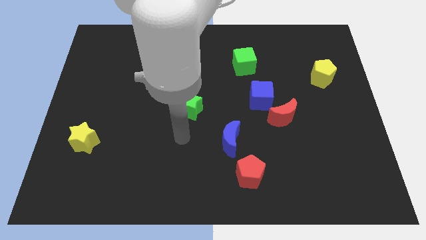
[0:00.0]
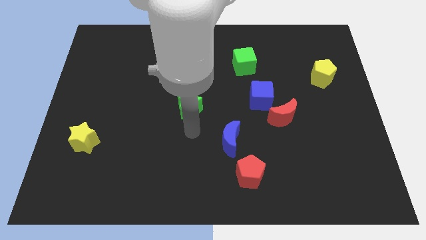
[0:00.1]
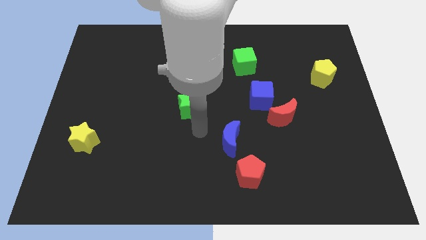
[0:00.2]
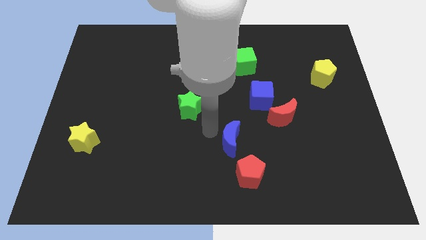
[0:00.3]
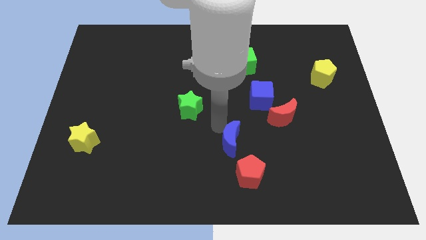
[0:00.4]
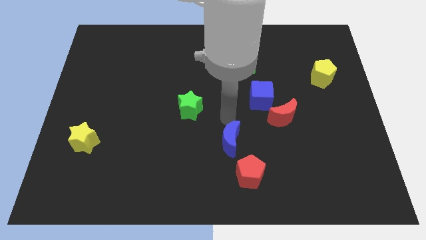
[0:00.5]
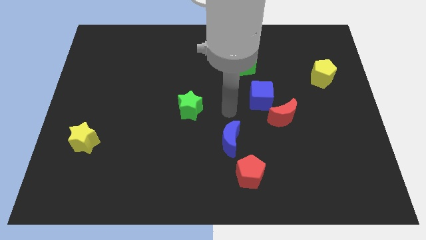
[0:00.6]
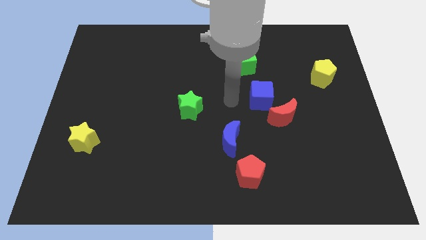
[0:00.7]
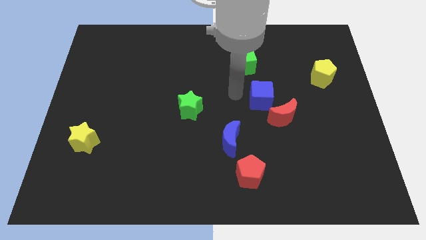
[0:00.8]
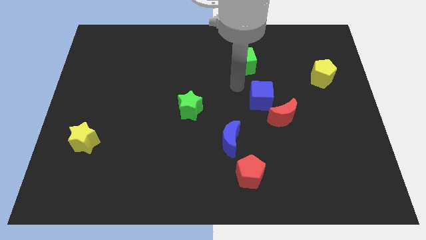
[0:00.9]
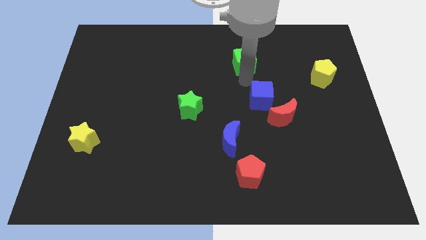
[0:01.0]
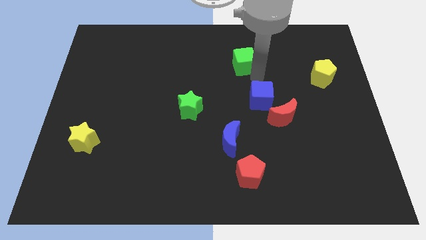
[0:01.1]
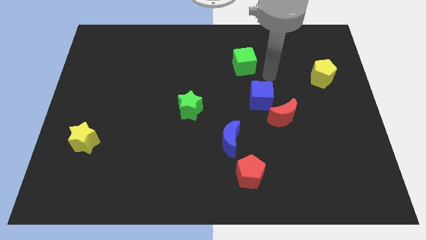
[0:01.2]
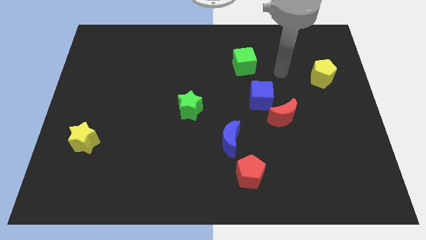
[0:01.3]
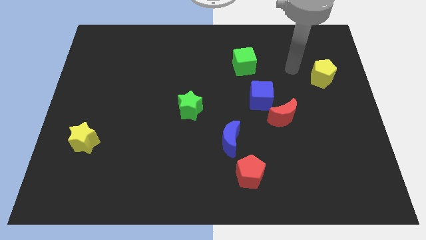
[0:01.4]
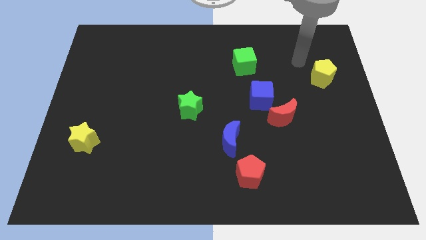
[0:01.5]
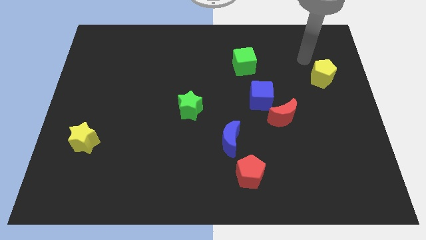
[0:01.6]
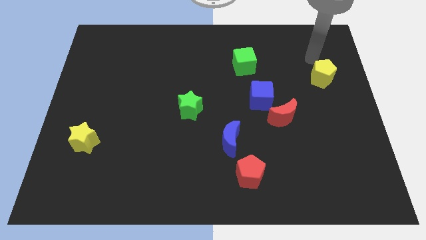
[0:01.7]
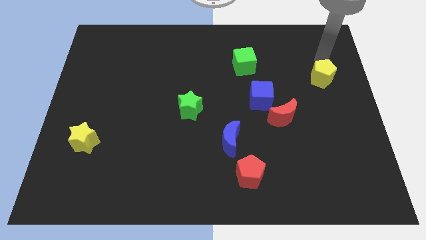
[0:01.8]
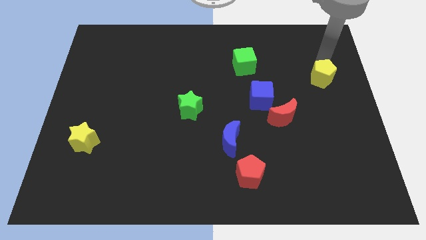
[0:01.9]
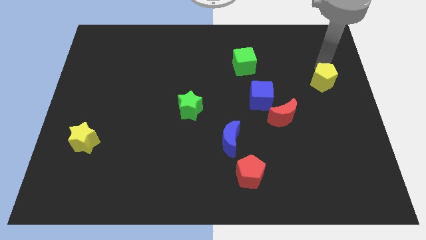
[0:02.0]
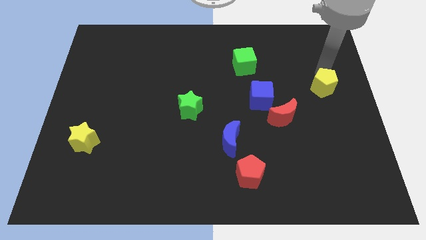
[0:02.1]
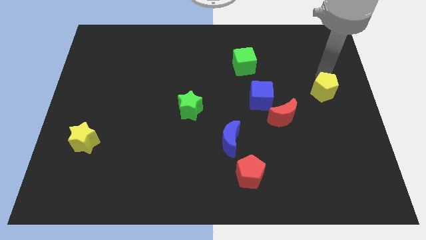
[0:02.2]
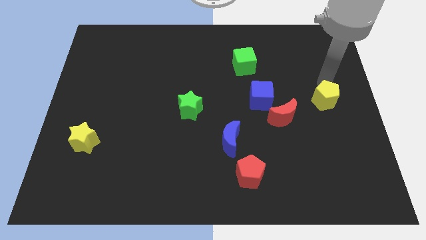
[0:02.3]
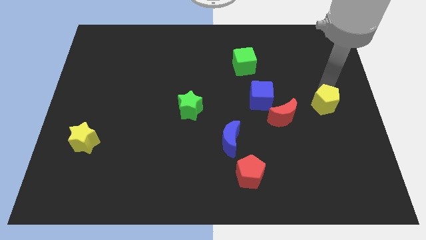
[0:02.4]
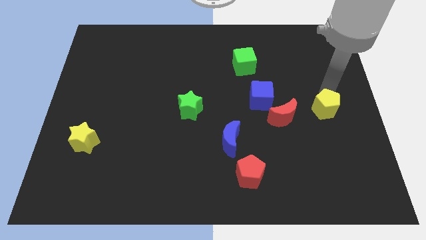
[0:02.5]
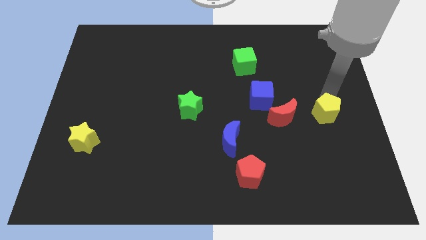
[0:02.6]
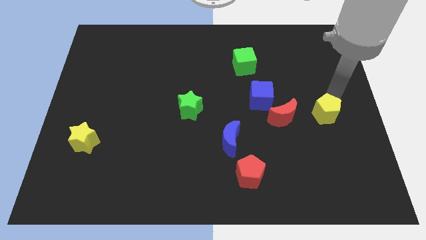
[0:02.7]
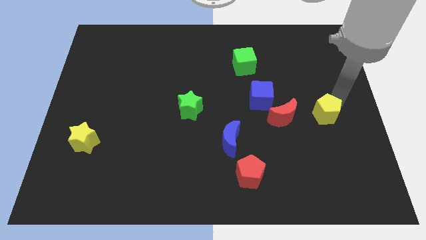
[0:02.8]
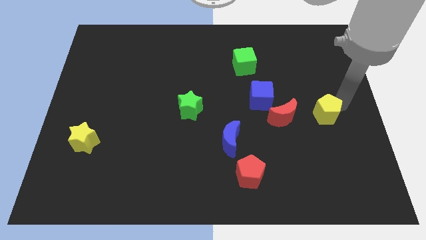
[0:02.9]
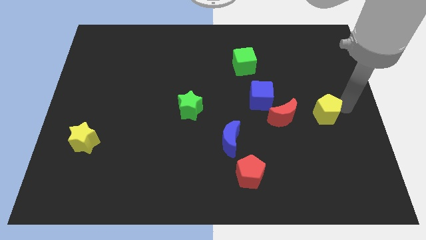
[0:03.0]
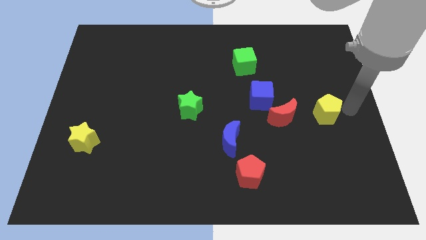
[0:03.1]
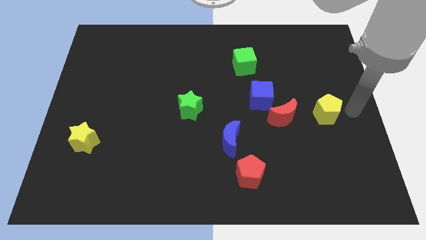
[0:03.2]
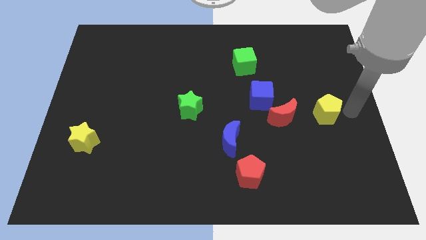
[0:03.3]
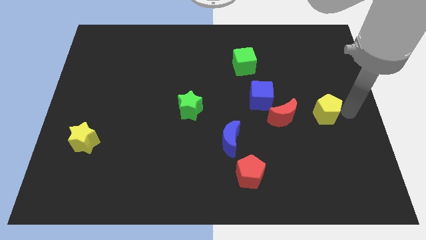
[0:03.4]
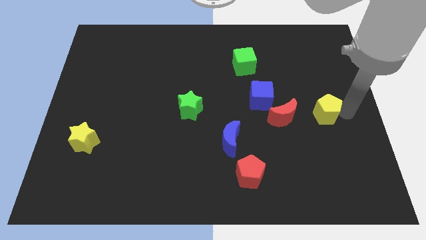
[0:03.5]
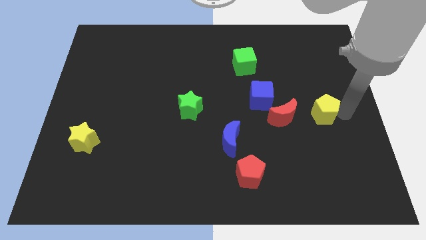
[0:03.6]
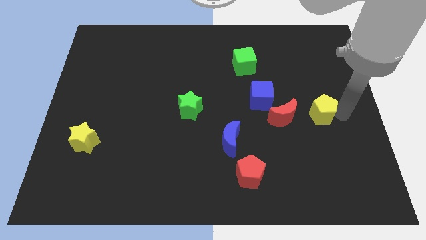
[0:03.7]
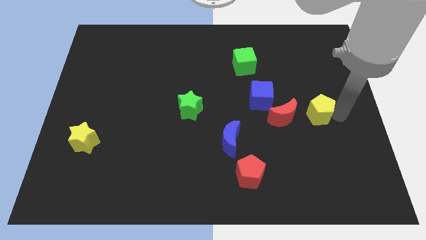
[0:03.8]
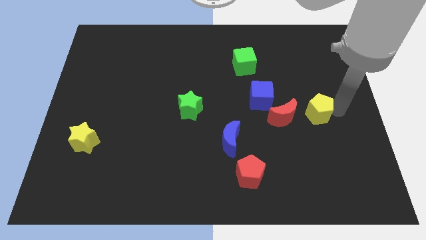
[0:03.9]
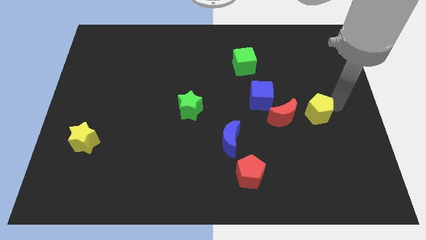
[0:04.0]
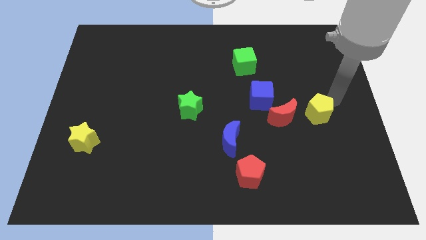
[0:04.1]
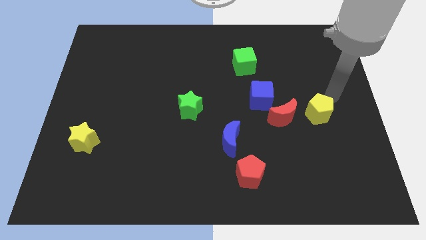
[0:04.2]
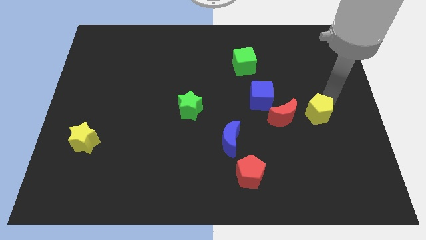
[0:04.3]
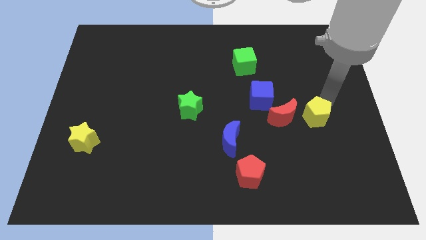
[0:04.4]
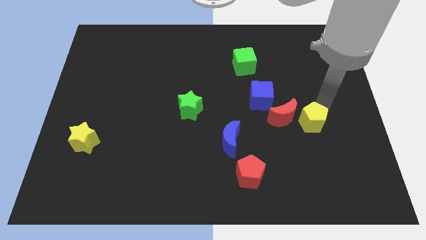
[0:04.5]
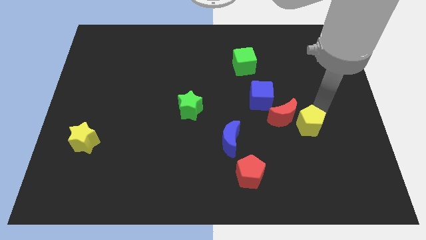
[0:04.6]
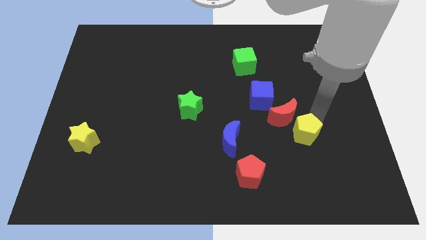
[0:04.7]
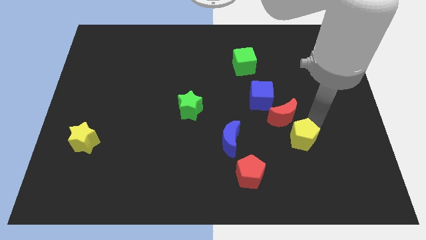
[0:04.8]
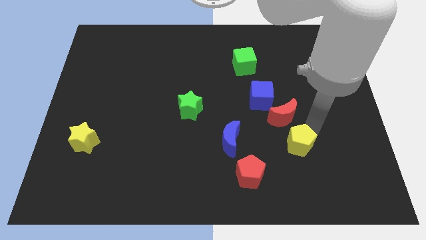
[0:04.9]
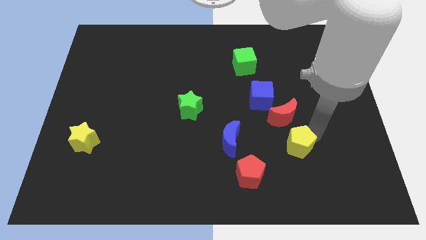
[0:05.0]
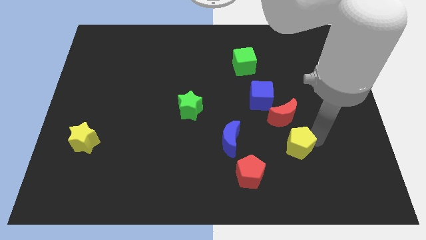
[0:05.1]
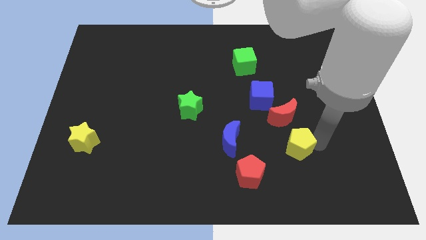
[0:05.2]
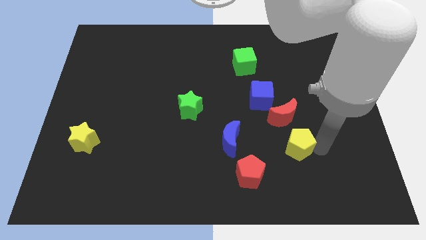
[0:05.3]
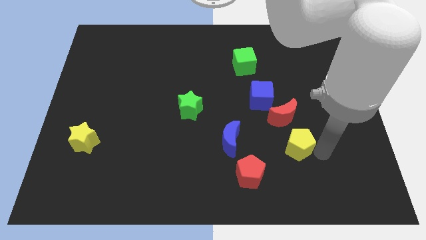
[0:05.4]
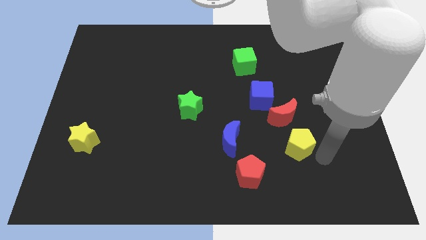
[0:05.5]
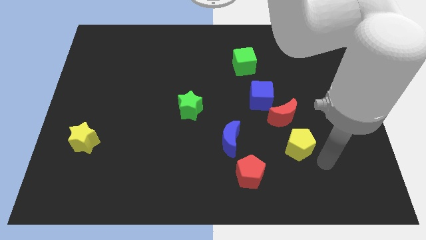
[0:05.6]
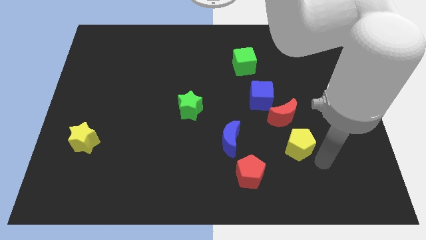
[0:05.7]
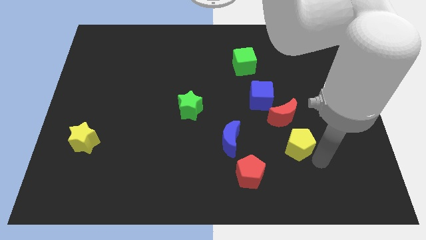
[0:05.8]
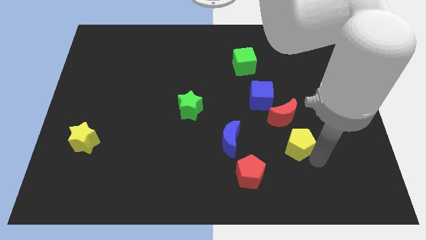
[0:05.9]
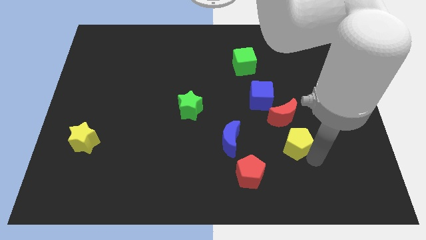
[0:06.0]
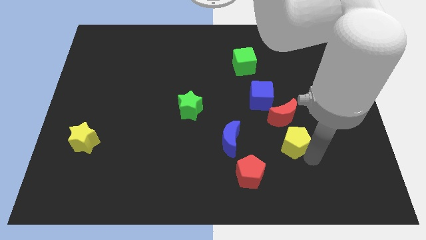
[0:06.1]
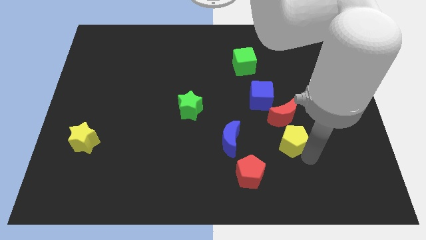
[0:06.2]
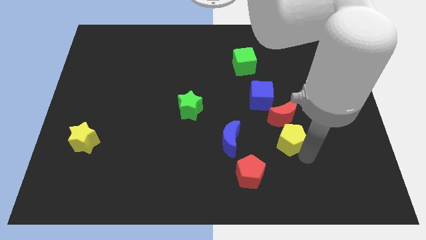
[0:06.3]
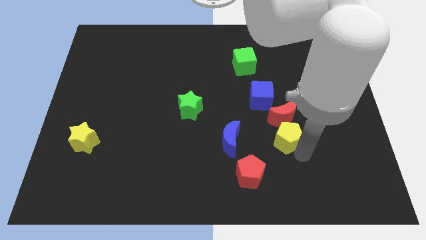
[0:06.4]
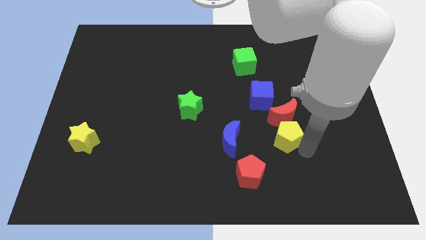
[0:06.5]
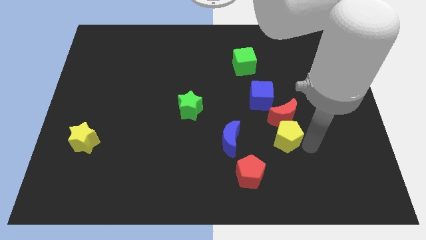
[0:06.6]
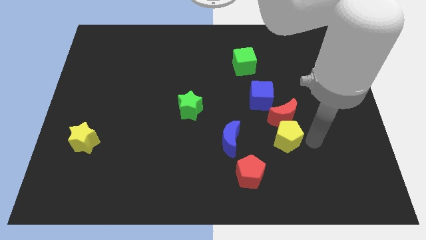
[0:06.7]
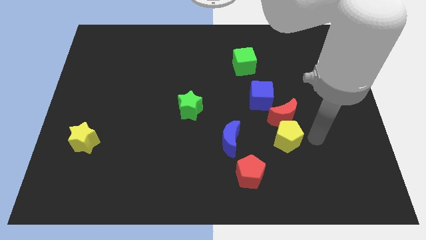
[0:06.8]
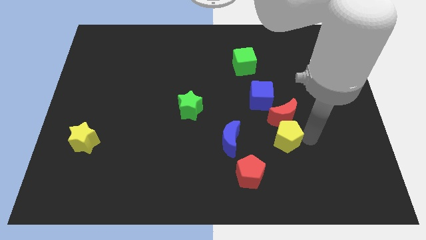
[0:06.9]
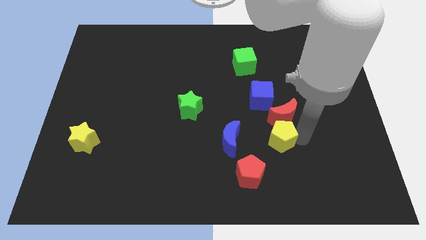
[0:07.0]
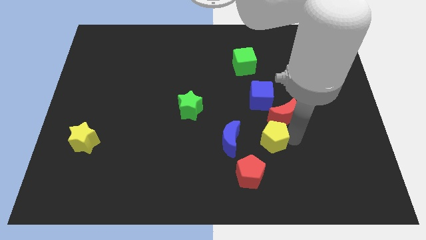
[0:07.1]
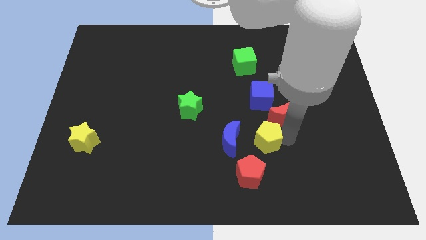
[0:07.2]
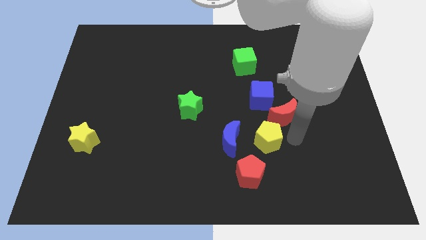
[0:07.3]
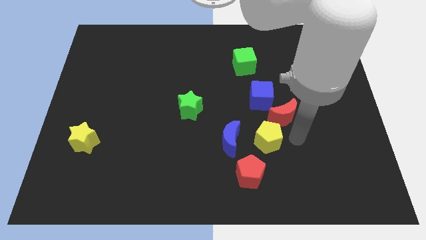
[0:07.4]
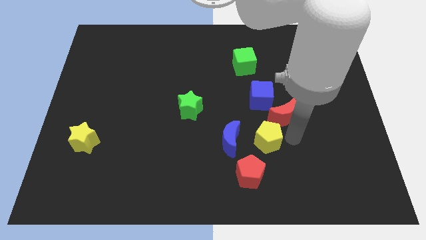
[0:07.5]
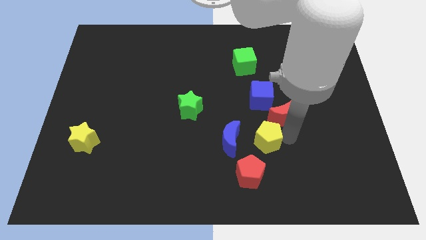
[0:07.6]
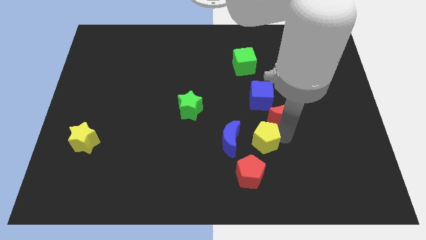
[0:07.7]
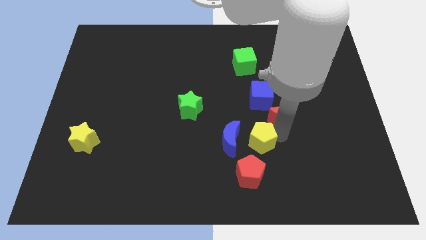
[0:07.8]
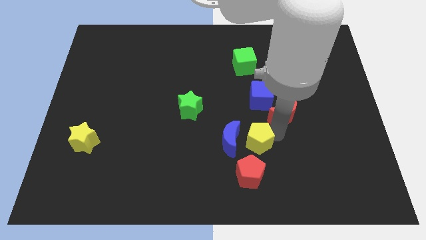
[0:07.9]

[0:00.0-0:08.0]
push the yellow pentagon close to the blue moon

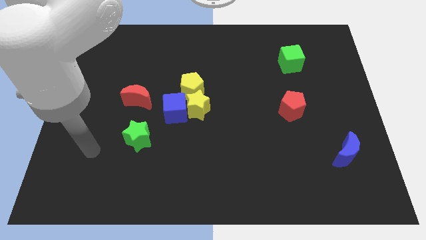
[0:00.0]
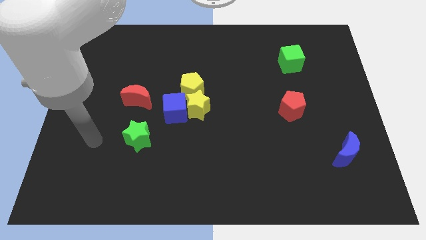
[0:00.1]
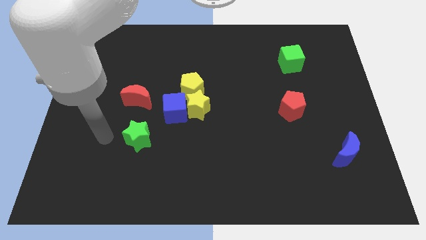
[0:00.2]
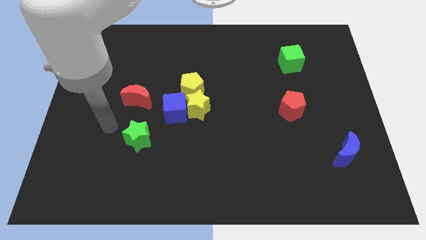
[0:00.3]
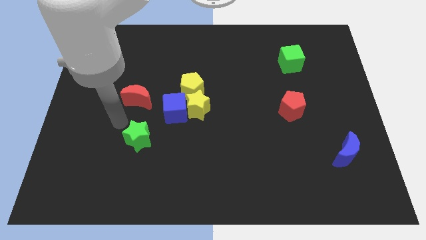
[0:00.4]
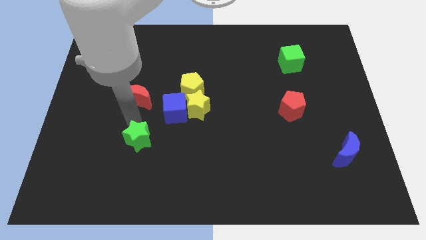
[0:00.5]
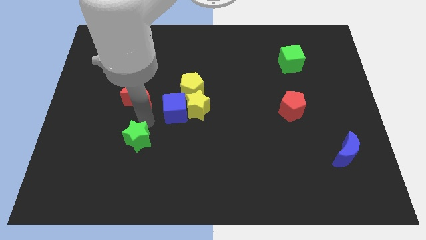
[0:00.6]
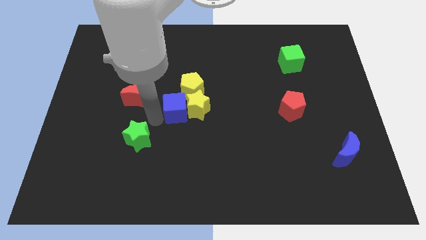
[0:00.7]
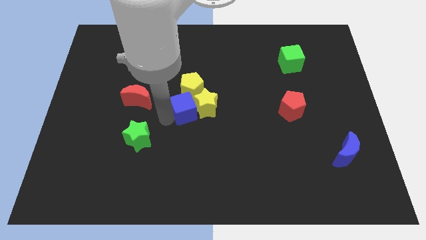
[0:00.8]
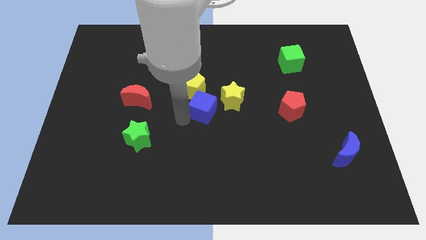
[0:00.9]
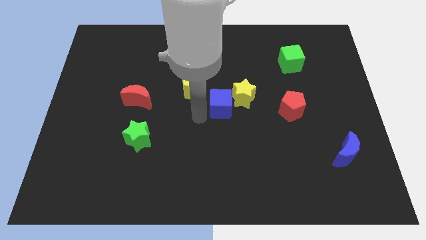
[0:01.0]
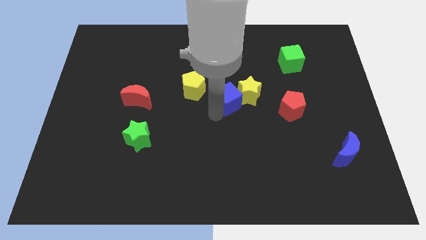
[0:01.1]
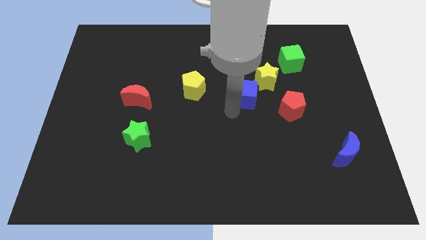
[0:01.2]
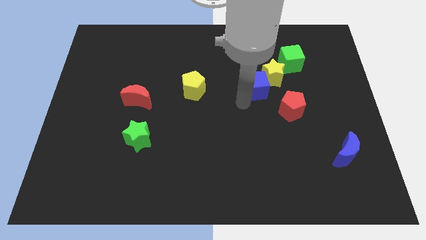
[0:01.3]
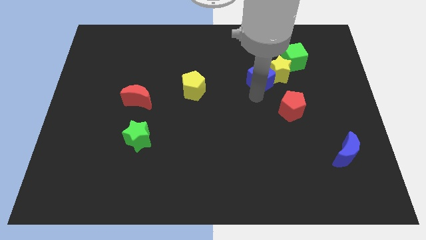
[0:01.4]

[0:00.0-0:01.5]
move the yellow star next to the green cube
